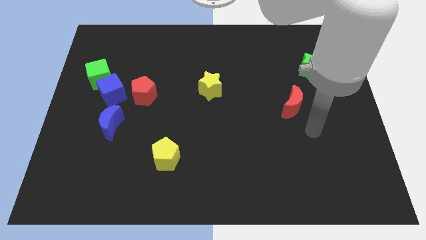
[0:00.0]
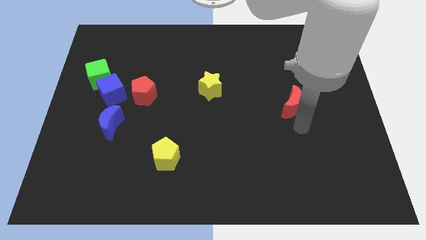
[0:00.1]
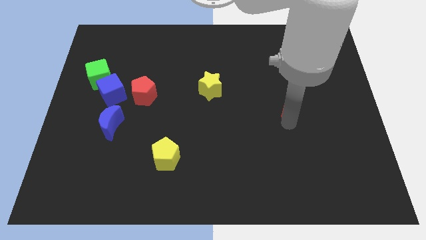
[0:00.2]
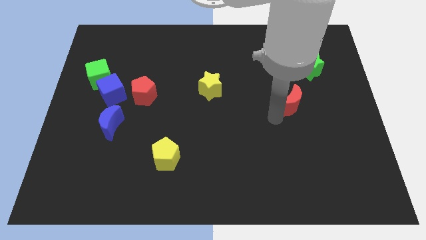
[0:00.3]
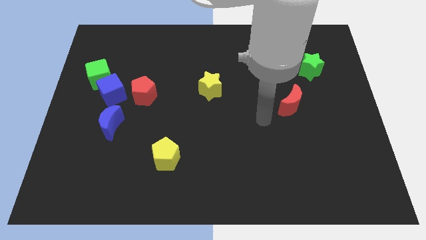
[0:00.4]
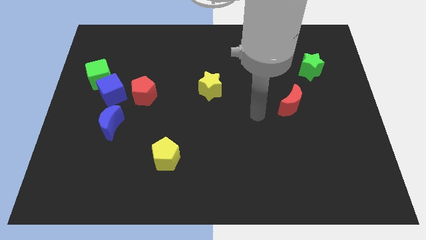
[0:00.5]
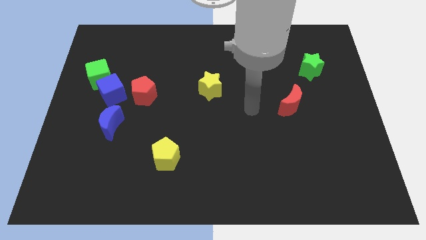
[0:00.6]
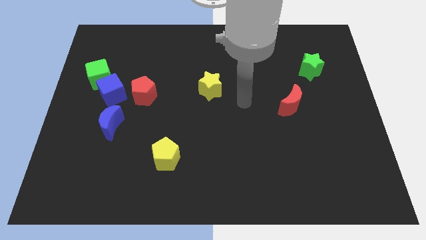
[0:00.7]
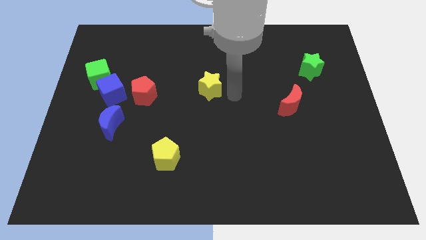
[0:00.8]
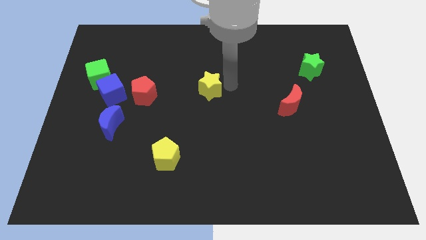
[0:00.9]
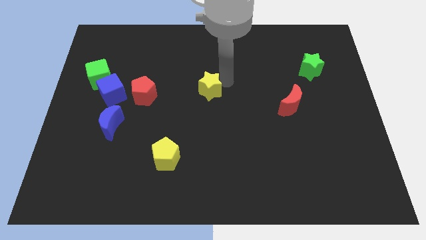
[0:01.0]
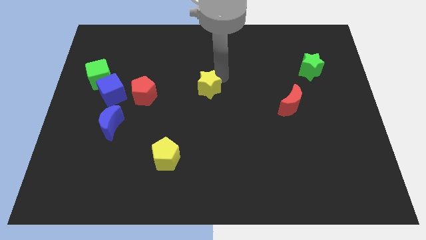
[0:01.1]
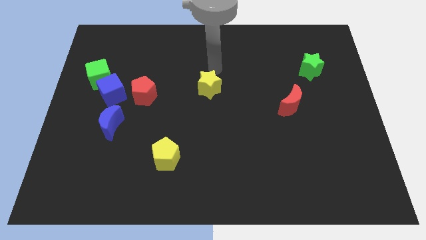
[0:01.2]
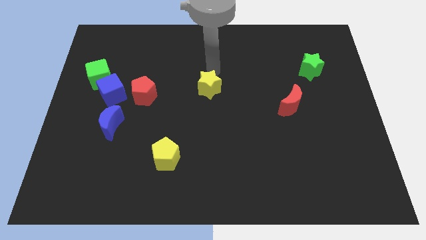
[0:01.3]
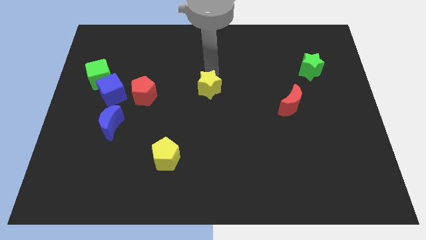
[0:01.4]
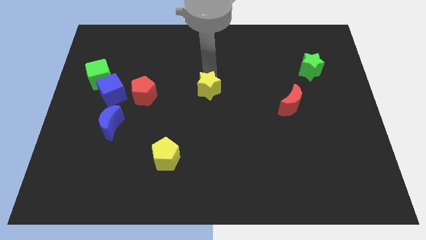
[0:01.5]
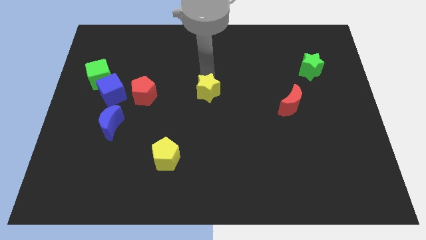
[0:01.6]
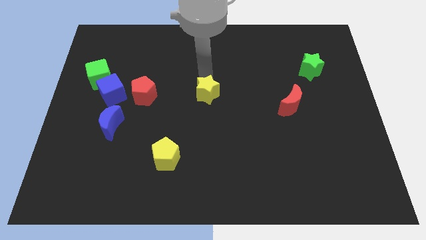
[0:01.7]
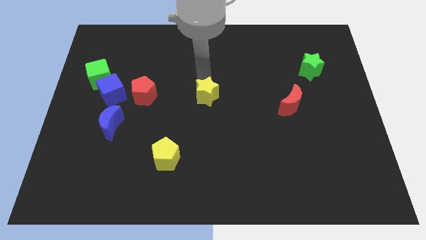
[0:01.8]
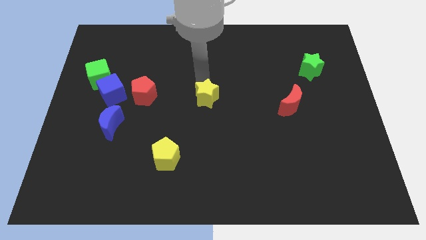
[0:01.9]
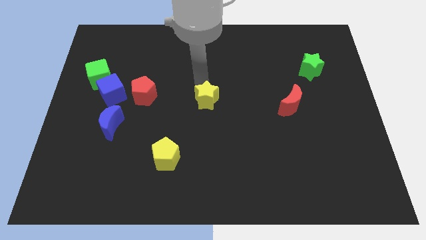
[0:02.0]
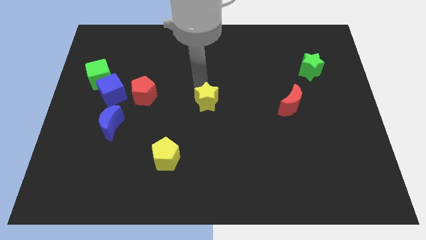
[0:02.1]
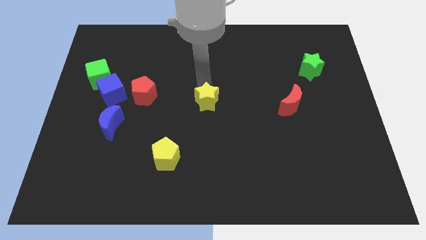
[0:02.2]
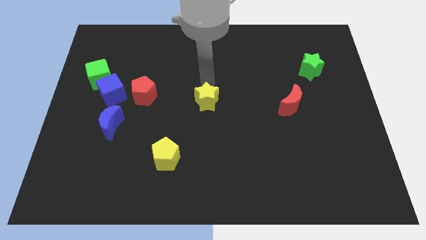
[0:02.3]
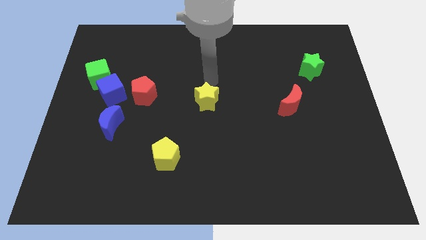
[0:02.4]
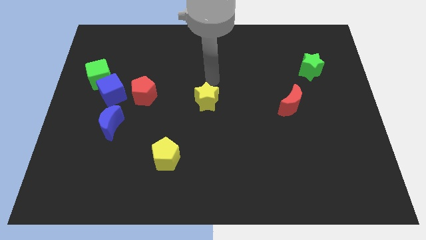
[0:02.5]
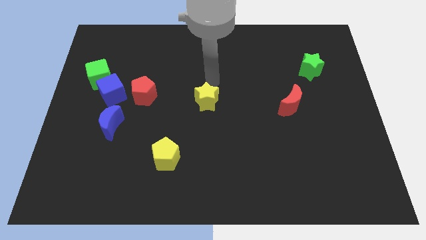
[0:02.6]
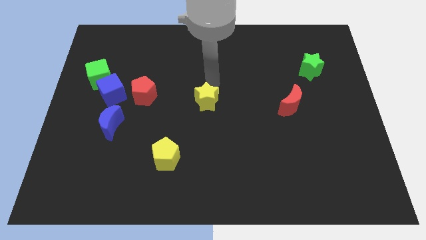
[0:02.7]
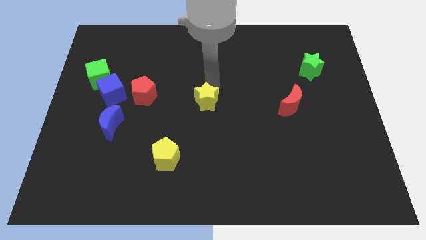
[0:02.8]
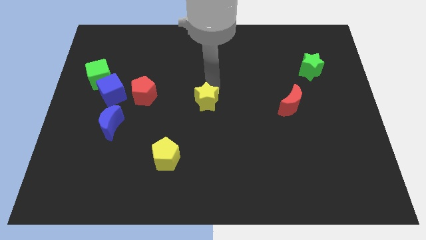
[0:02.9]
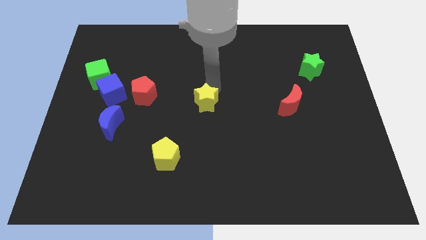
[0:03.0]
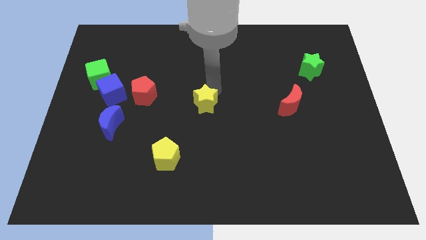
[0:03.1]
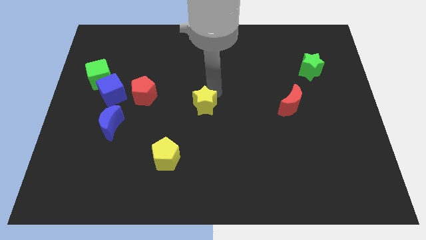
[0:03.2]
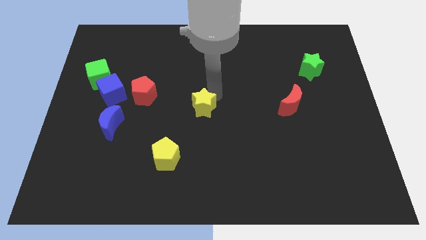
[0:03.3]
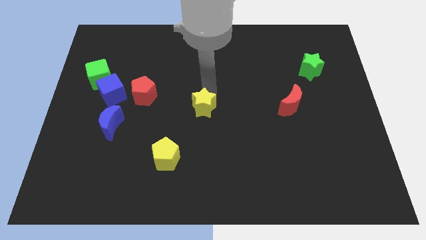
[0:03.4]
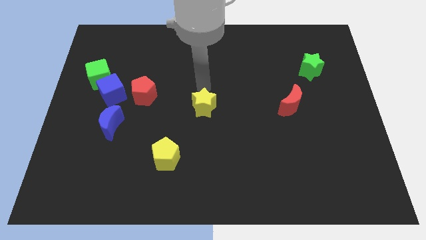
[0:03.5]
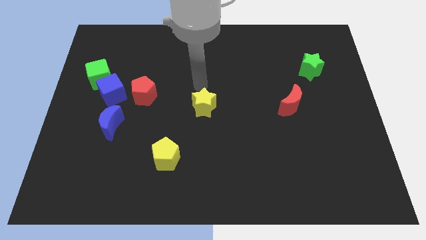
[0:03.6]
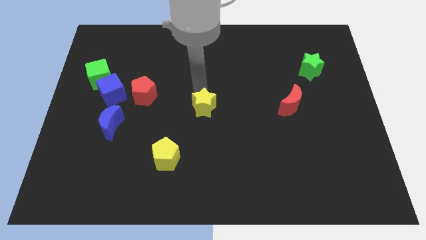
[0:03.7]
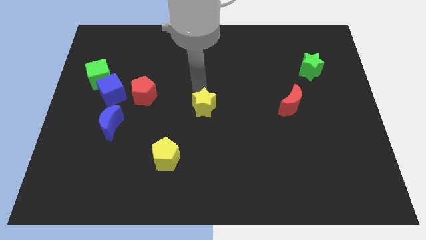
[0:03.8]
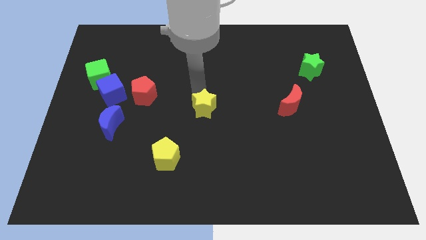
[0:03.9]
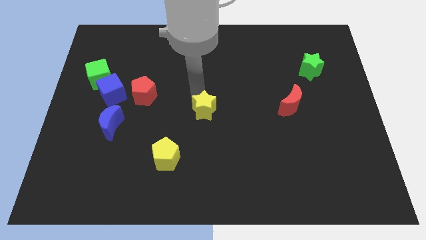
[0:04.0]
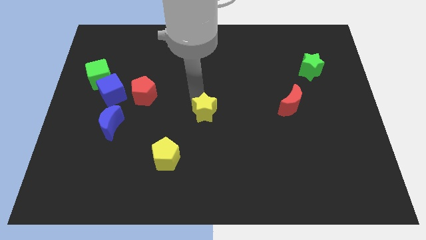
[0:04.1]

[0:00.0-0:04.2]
push the yellow star a little bit downwards

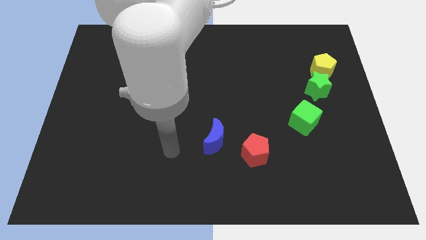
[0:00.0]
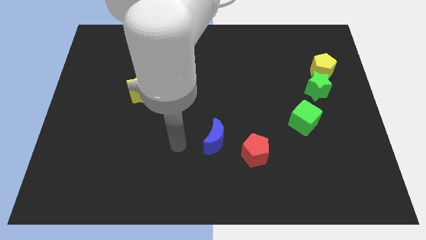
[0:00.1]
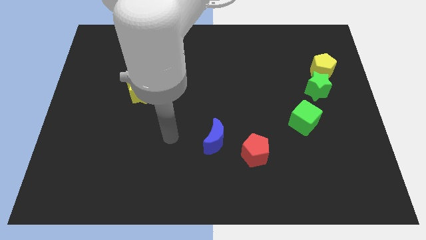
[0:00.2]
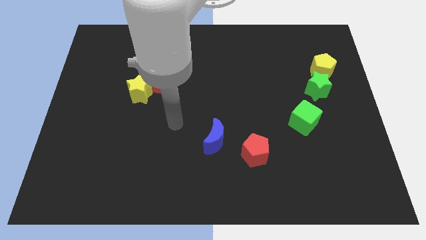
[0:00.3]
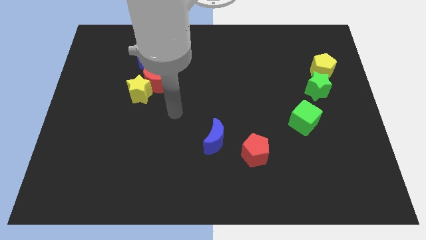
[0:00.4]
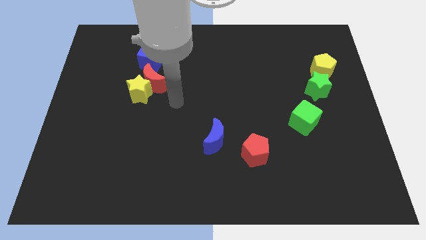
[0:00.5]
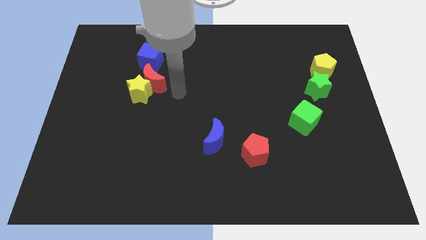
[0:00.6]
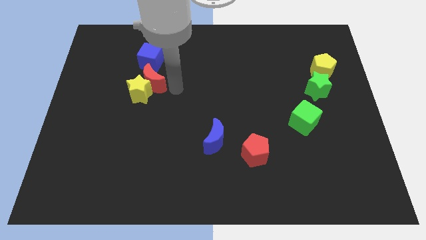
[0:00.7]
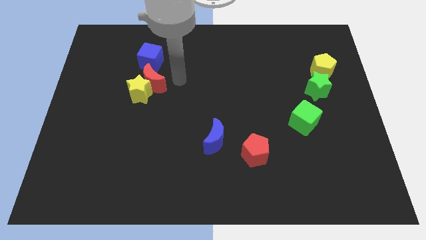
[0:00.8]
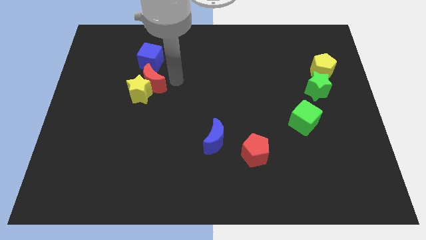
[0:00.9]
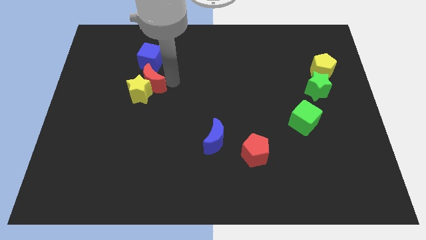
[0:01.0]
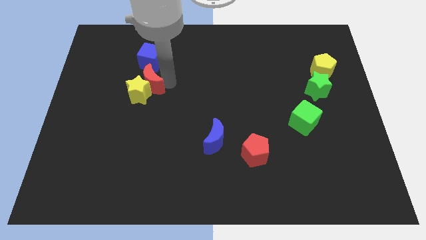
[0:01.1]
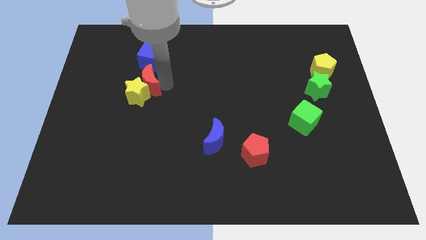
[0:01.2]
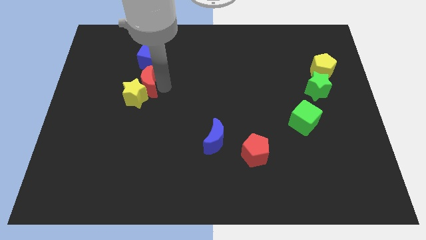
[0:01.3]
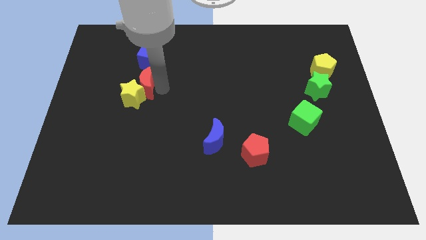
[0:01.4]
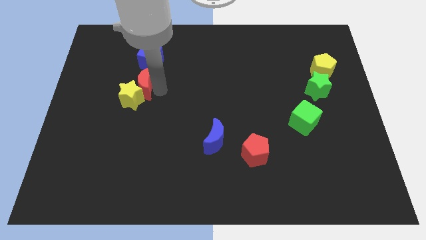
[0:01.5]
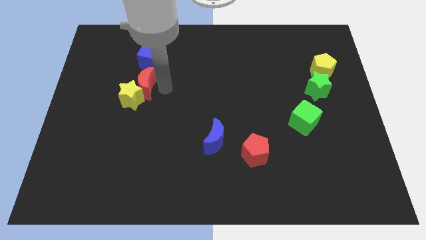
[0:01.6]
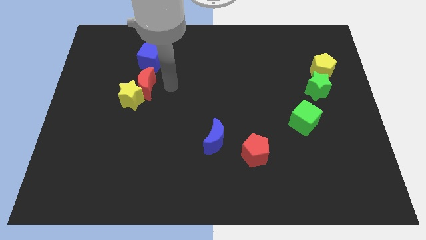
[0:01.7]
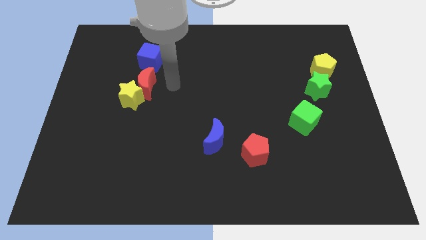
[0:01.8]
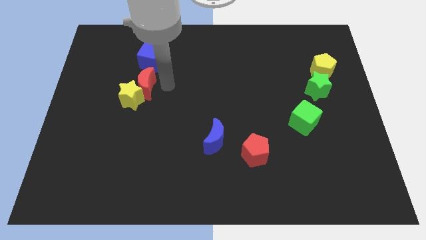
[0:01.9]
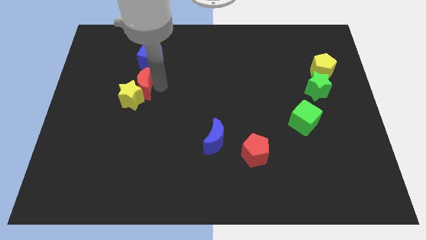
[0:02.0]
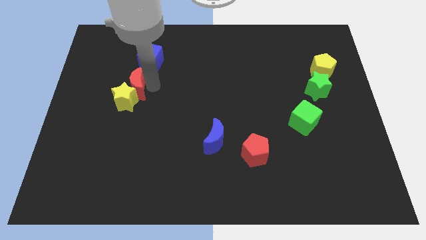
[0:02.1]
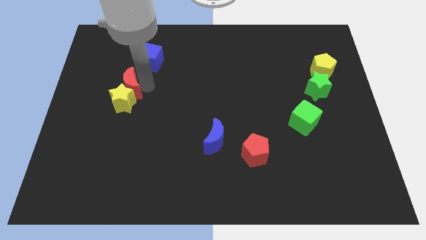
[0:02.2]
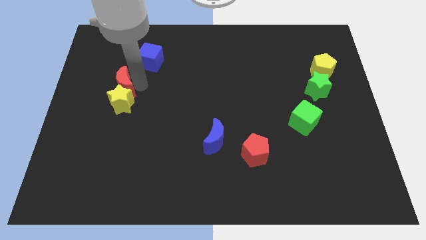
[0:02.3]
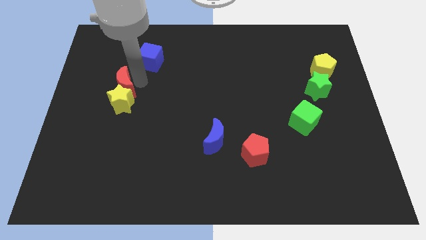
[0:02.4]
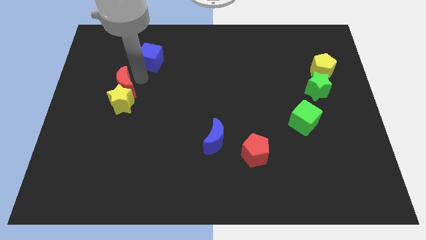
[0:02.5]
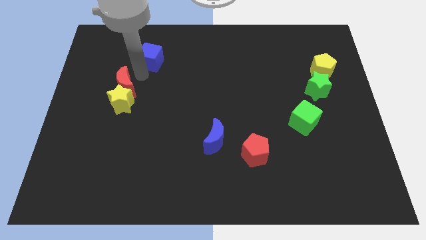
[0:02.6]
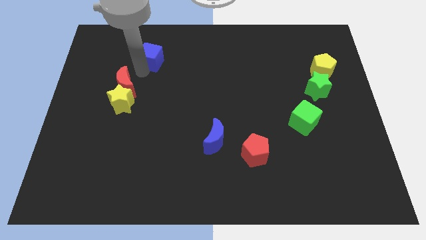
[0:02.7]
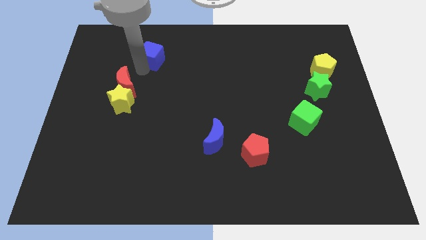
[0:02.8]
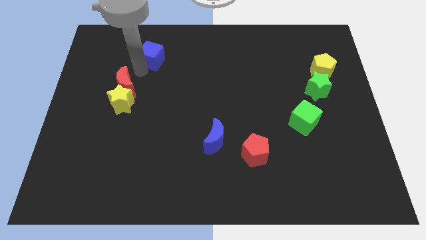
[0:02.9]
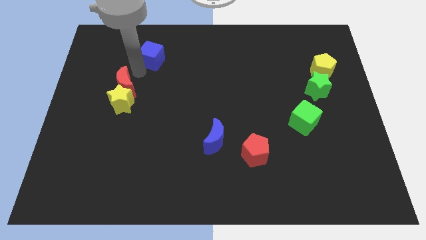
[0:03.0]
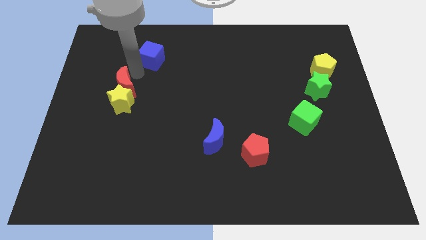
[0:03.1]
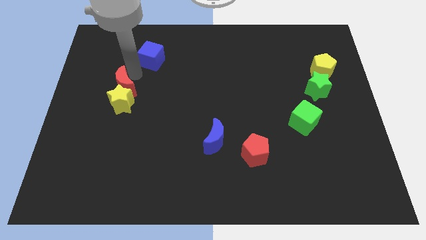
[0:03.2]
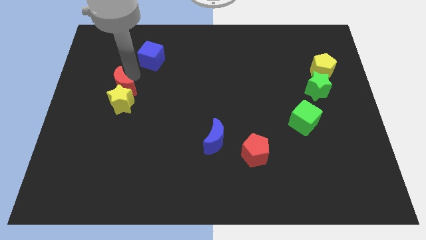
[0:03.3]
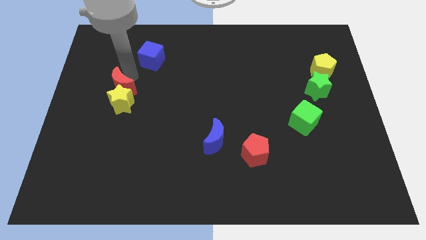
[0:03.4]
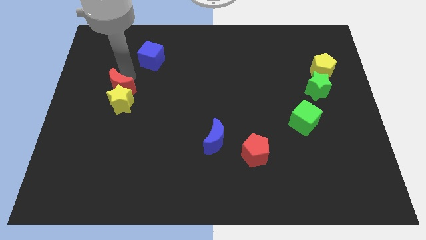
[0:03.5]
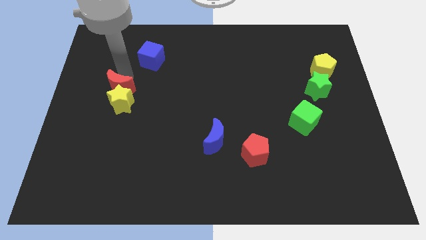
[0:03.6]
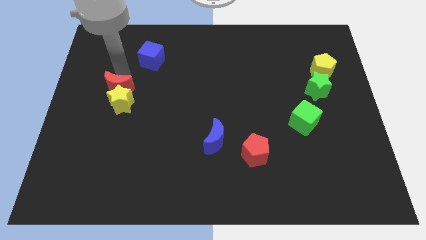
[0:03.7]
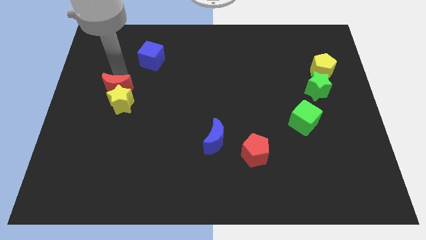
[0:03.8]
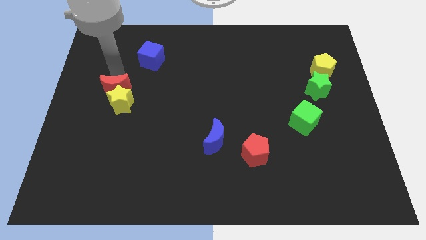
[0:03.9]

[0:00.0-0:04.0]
move the red moon slightly down and then to the left
